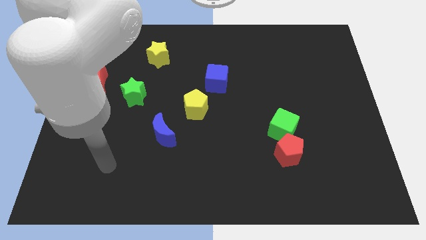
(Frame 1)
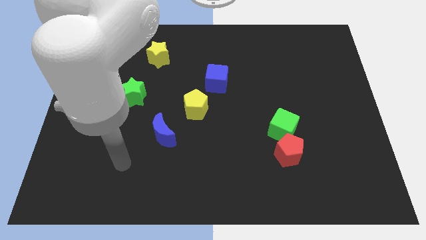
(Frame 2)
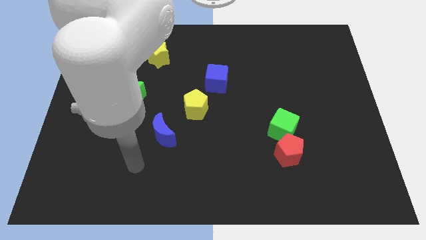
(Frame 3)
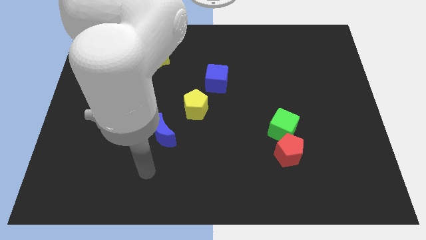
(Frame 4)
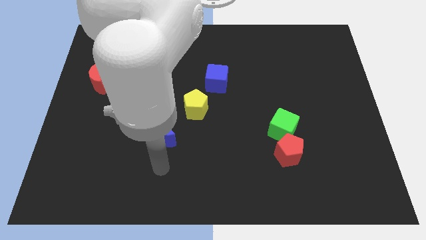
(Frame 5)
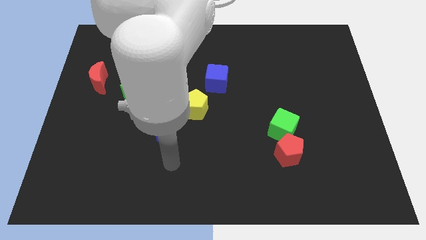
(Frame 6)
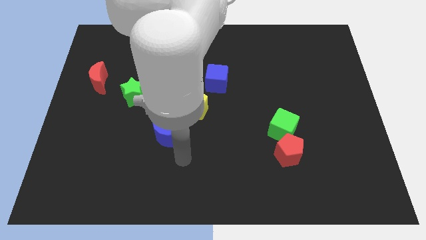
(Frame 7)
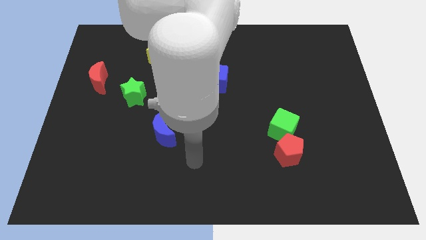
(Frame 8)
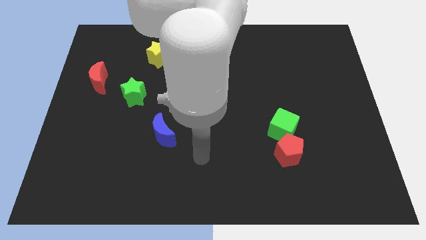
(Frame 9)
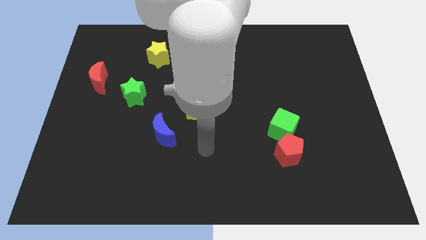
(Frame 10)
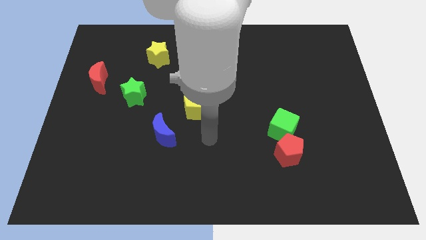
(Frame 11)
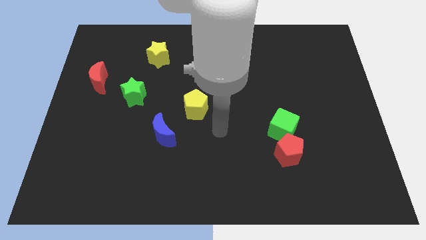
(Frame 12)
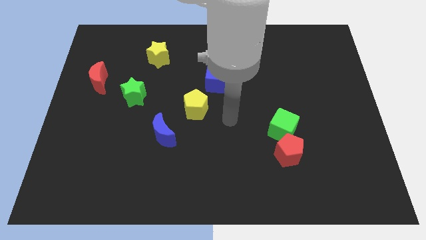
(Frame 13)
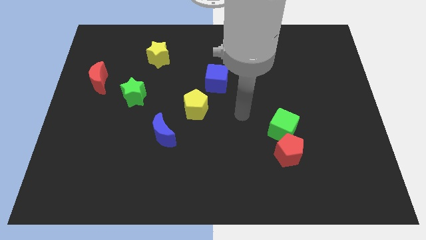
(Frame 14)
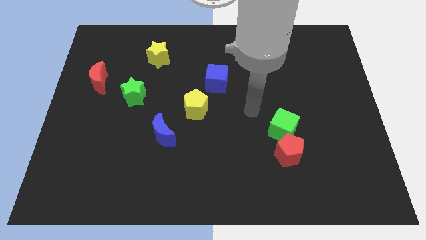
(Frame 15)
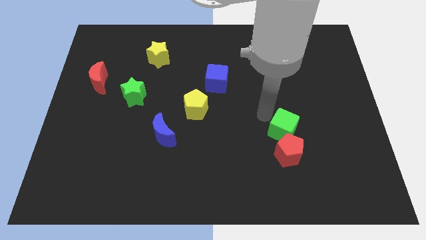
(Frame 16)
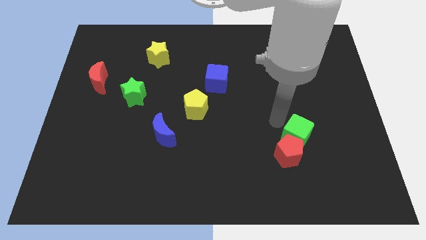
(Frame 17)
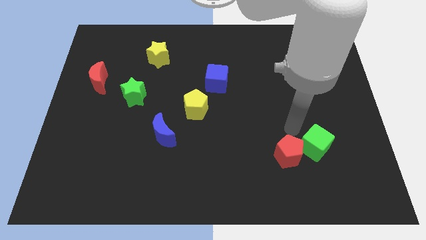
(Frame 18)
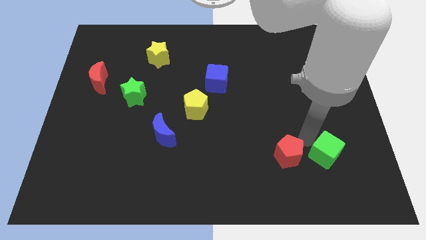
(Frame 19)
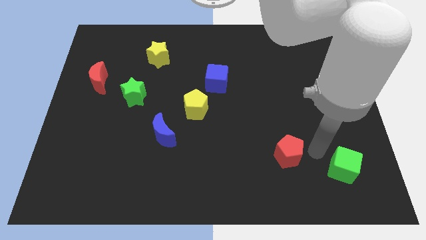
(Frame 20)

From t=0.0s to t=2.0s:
separate the red pentagon from the green cube

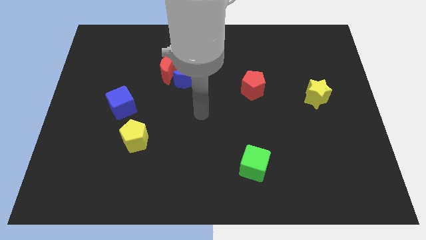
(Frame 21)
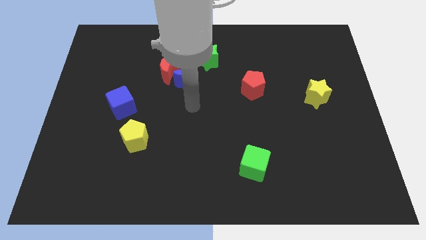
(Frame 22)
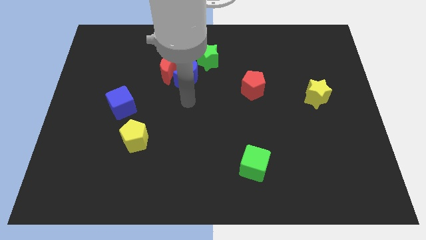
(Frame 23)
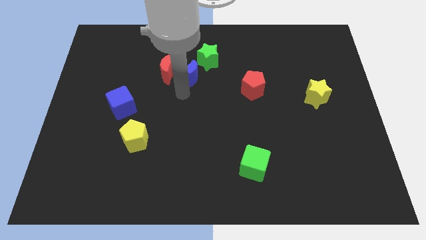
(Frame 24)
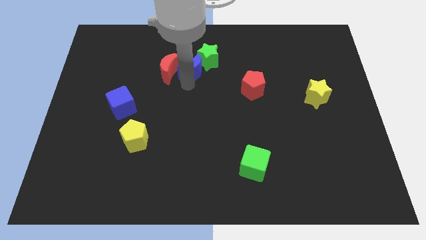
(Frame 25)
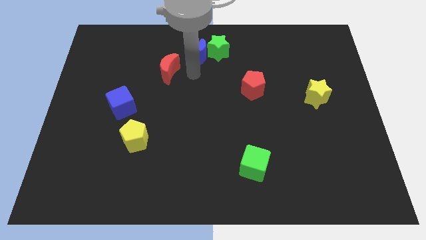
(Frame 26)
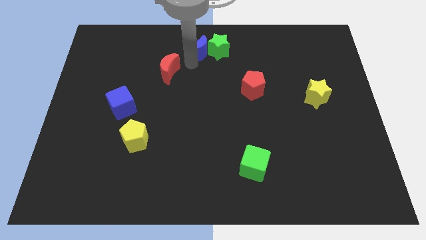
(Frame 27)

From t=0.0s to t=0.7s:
separate the red moon from the blue moon

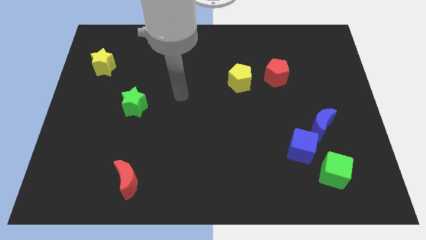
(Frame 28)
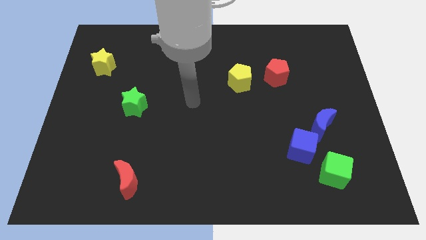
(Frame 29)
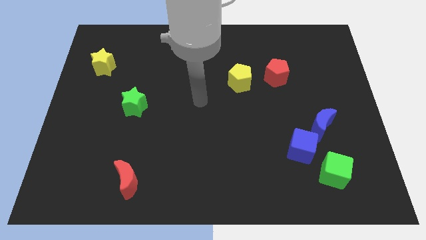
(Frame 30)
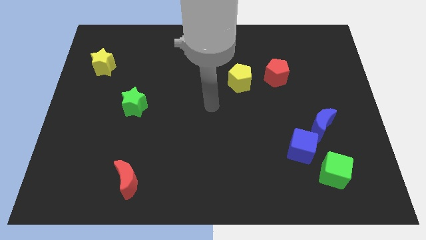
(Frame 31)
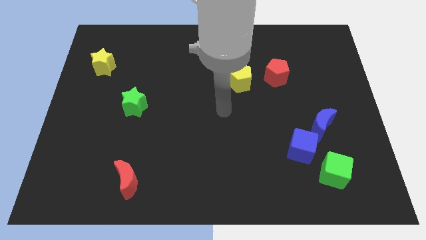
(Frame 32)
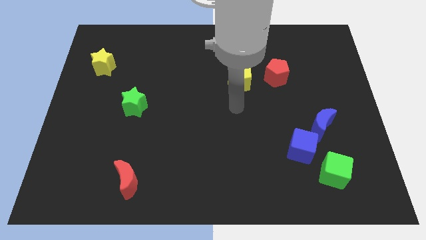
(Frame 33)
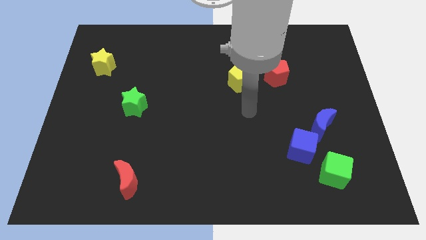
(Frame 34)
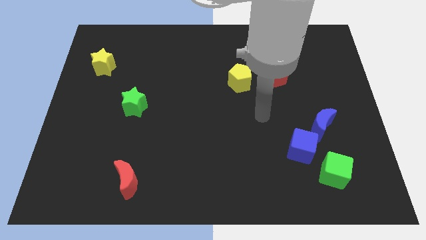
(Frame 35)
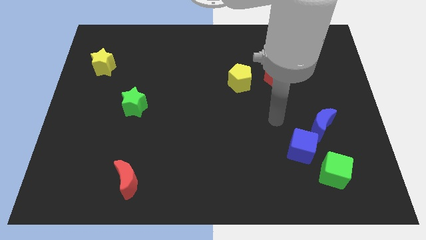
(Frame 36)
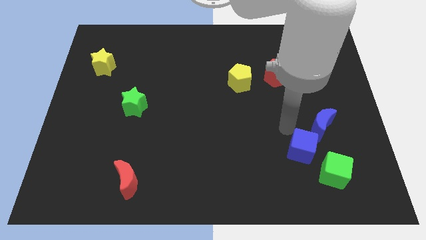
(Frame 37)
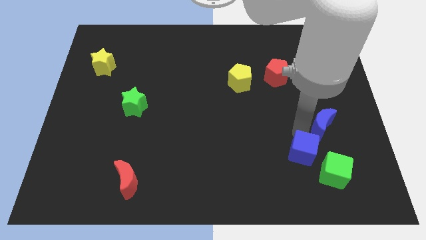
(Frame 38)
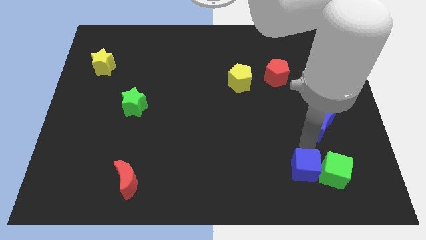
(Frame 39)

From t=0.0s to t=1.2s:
separate the blue moon from the blue cube

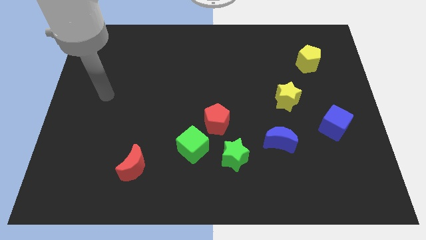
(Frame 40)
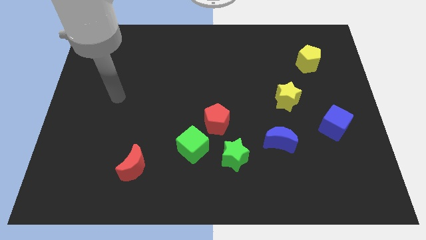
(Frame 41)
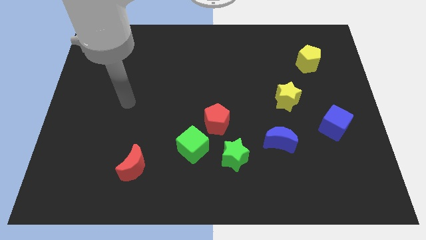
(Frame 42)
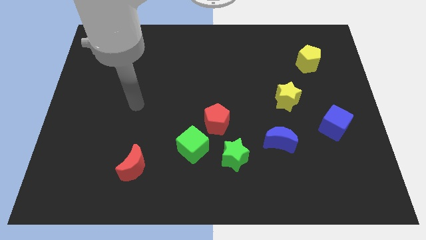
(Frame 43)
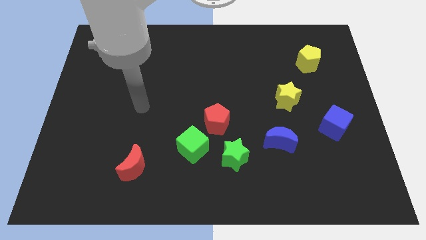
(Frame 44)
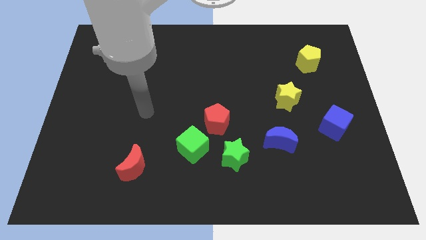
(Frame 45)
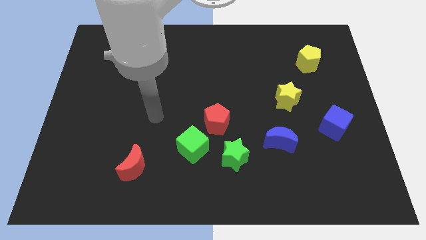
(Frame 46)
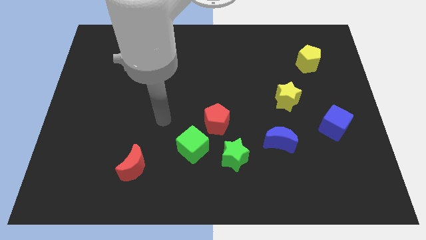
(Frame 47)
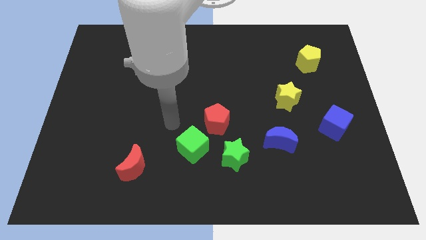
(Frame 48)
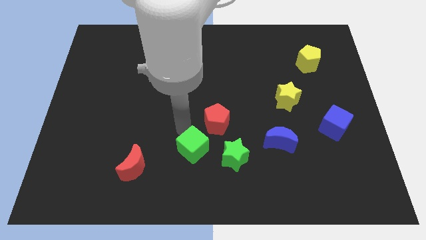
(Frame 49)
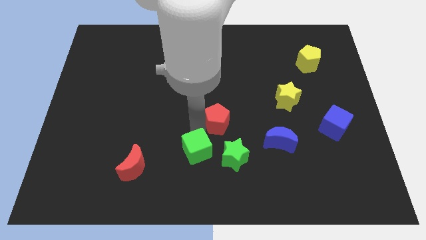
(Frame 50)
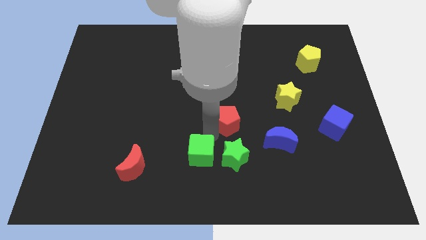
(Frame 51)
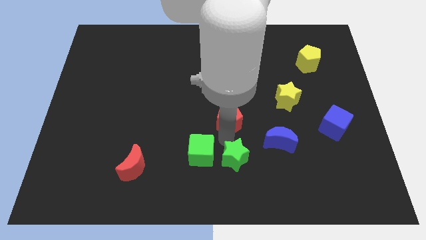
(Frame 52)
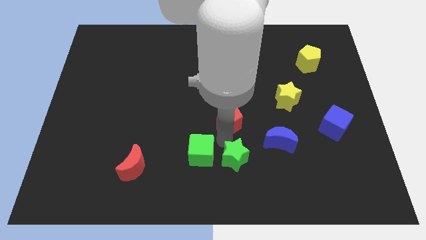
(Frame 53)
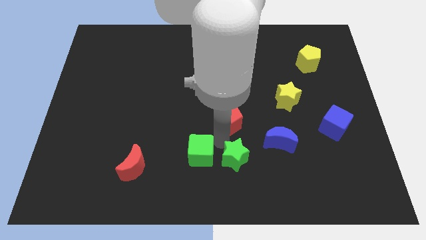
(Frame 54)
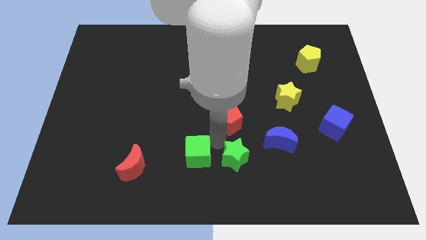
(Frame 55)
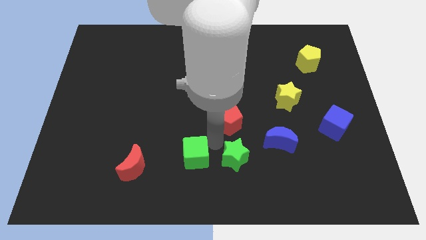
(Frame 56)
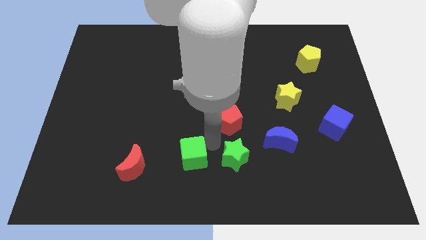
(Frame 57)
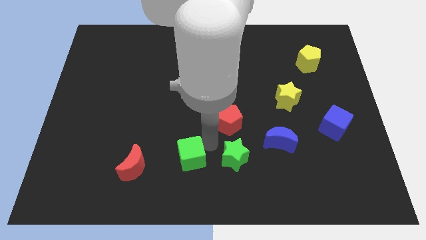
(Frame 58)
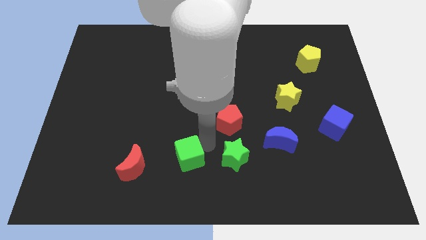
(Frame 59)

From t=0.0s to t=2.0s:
separate the green cube from the red pentagon and green star

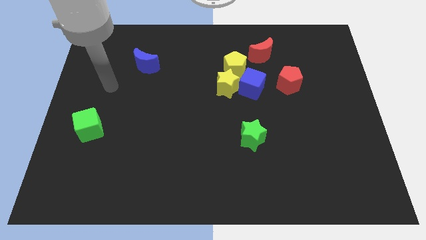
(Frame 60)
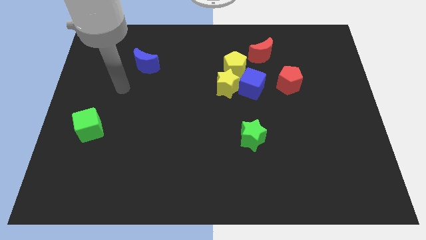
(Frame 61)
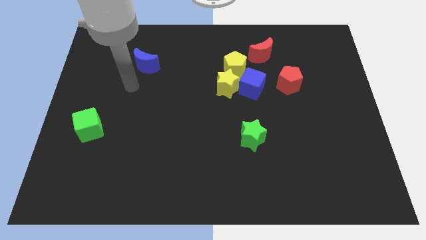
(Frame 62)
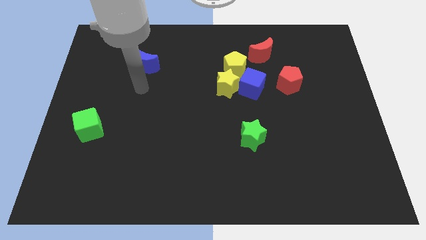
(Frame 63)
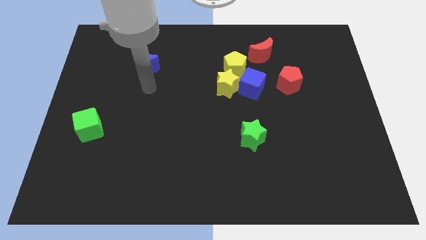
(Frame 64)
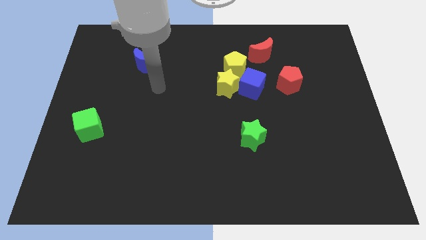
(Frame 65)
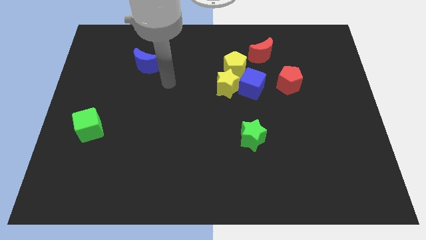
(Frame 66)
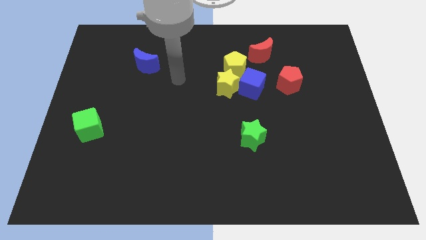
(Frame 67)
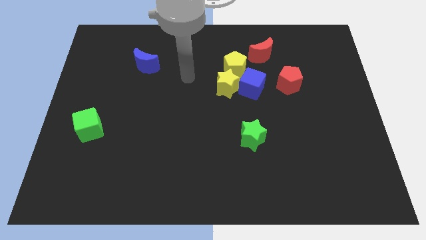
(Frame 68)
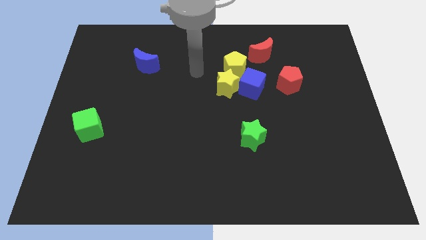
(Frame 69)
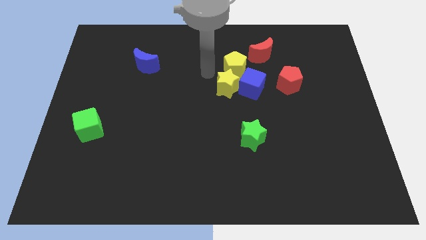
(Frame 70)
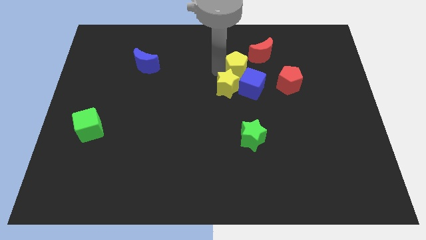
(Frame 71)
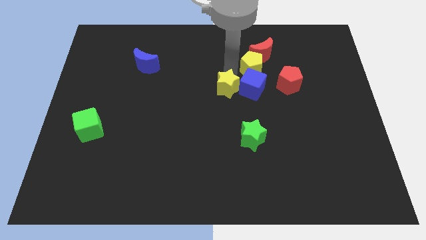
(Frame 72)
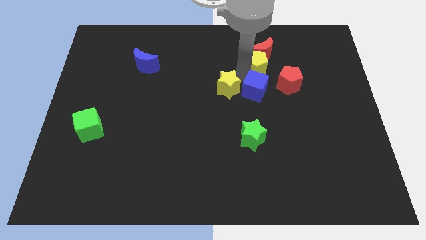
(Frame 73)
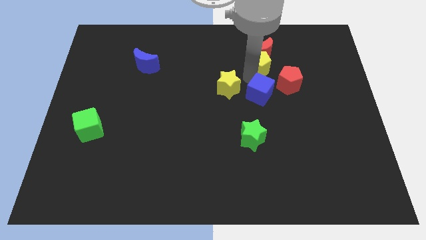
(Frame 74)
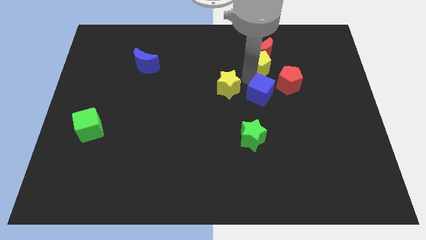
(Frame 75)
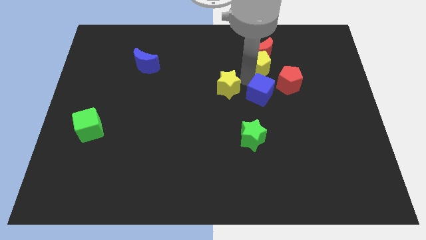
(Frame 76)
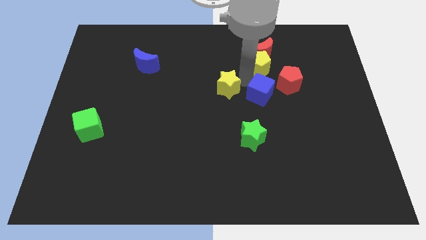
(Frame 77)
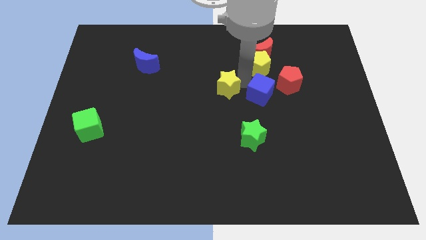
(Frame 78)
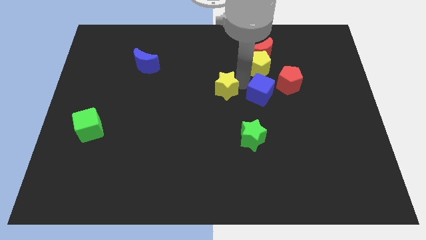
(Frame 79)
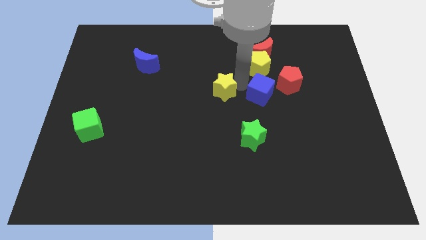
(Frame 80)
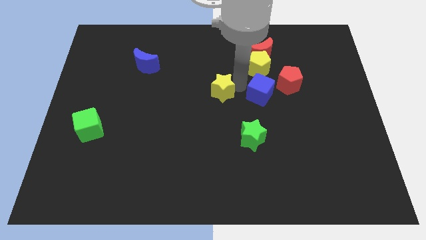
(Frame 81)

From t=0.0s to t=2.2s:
pull the yellow star apart from the blue cube and yellow pentagon

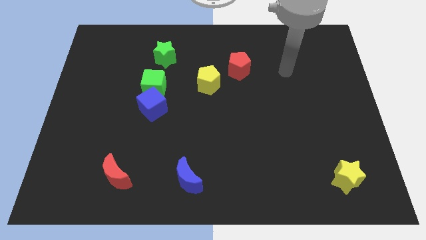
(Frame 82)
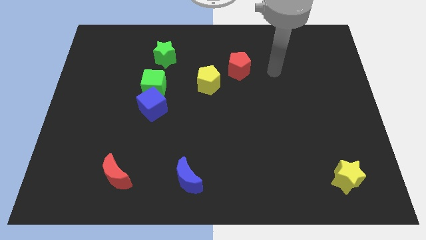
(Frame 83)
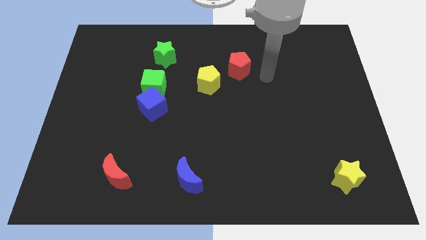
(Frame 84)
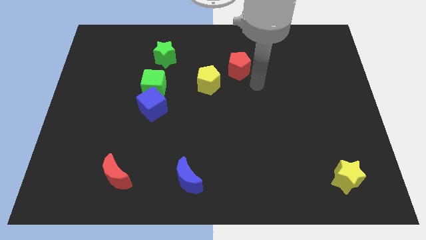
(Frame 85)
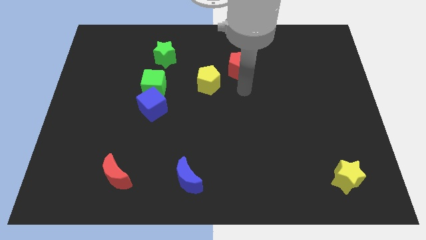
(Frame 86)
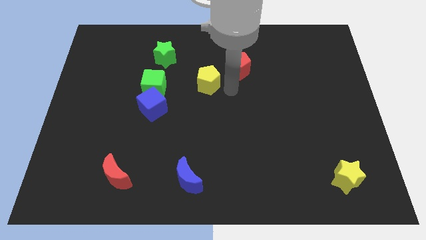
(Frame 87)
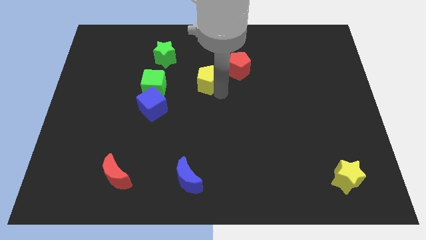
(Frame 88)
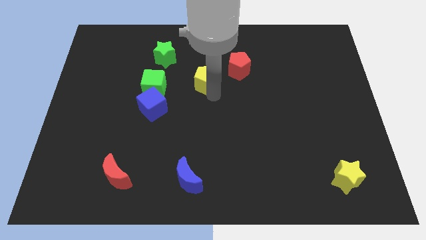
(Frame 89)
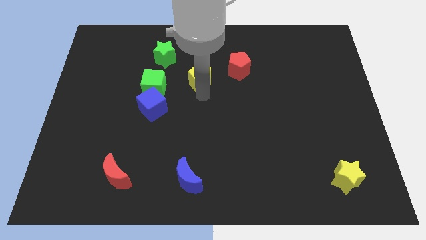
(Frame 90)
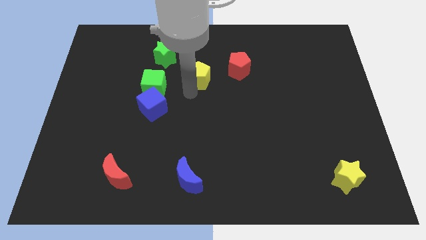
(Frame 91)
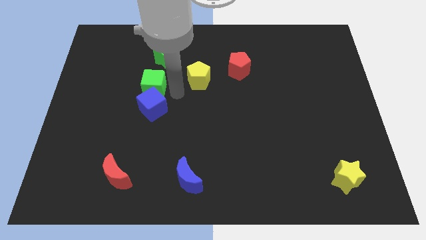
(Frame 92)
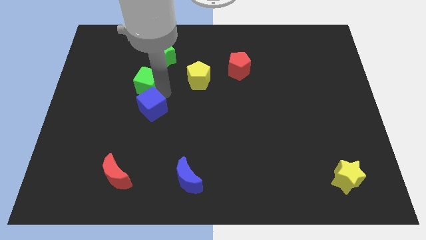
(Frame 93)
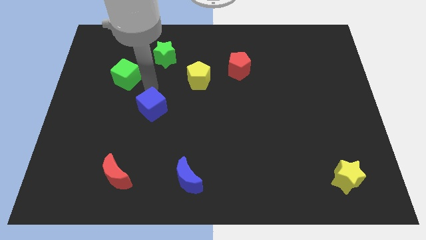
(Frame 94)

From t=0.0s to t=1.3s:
move the blue cube away from the green cube
